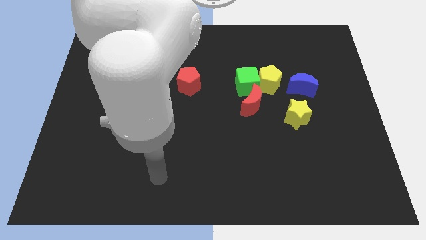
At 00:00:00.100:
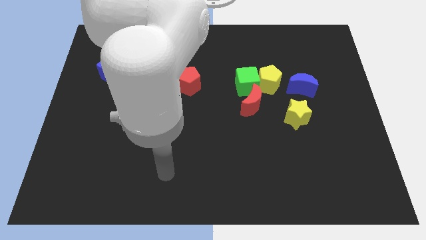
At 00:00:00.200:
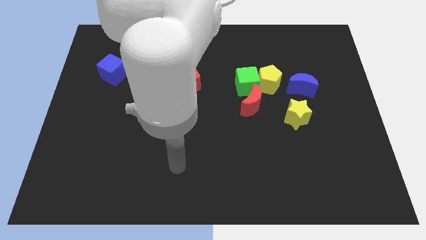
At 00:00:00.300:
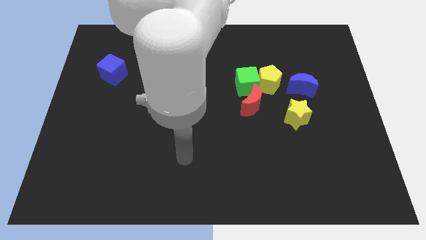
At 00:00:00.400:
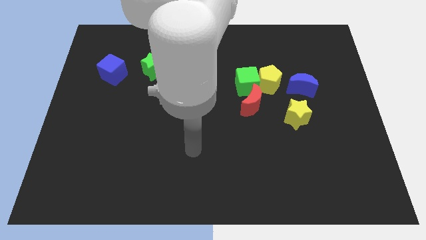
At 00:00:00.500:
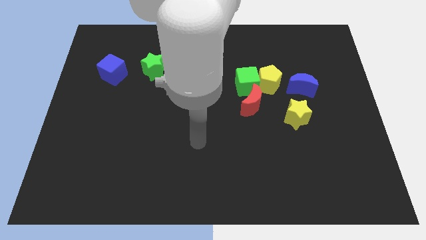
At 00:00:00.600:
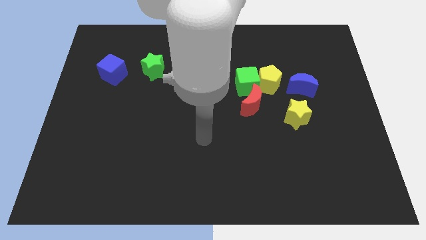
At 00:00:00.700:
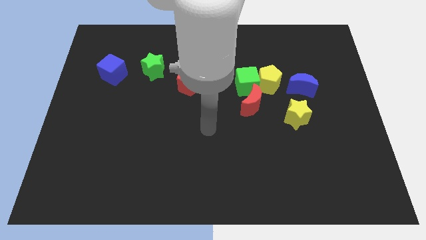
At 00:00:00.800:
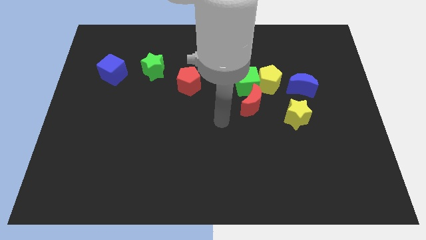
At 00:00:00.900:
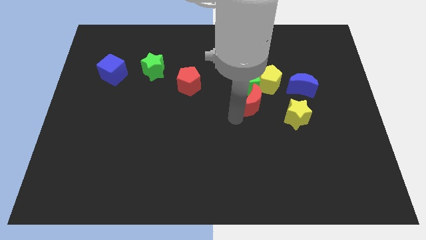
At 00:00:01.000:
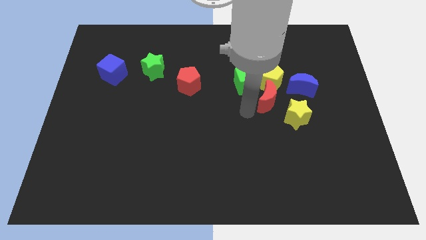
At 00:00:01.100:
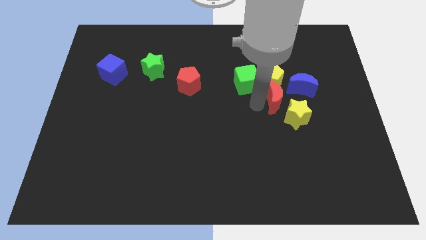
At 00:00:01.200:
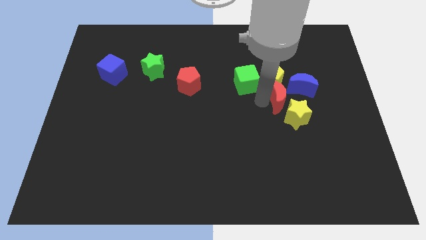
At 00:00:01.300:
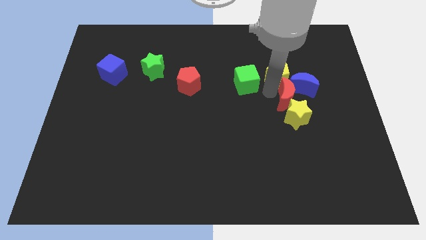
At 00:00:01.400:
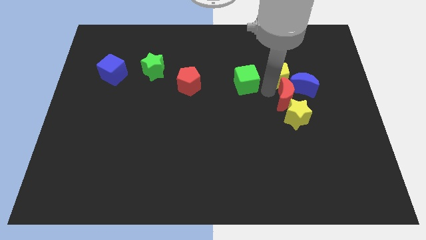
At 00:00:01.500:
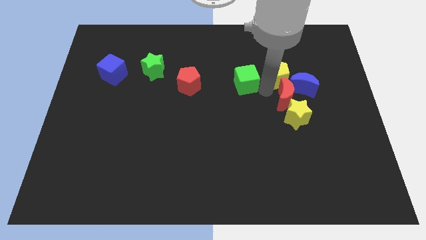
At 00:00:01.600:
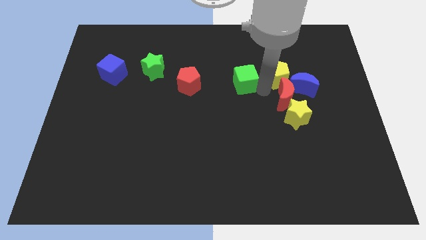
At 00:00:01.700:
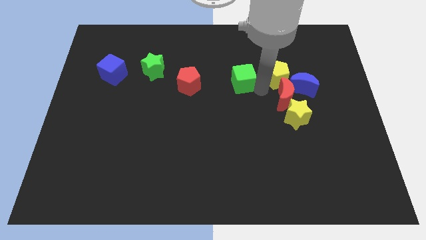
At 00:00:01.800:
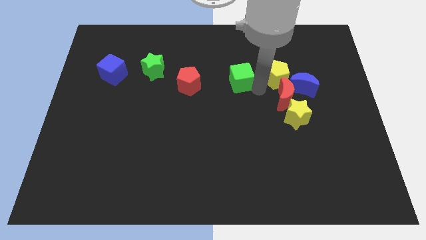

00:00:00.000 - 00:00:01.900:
move the green cube away from the yellow pentagon and red moon

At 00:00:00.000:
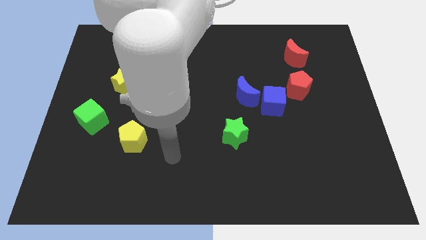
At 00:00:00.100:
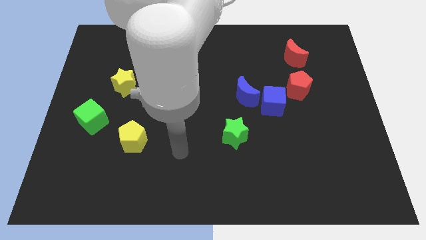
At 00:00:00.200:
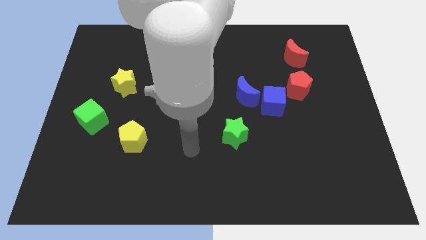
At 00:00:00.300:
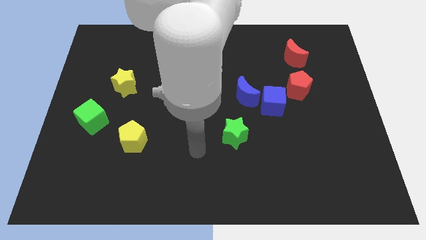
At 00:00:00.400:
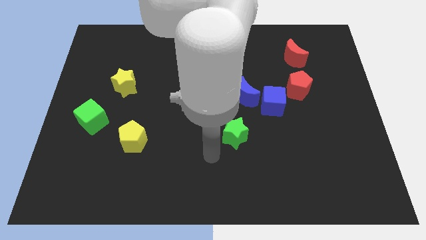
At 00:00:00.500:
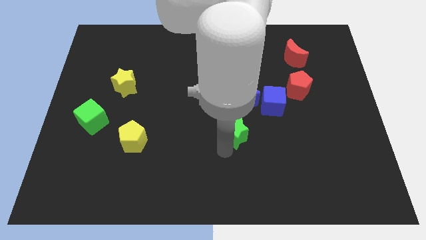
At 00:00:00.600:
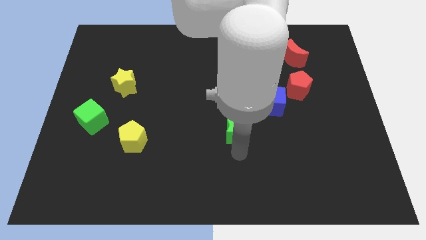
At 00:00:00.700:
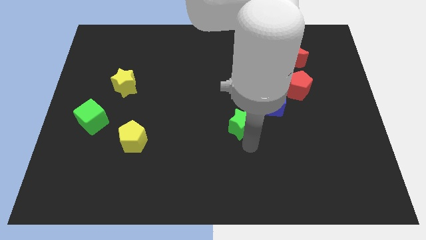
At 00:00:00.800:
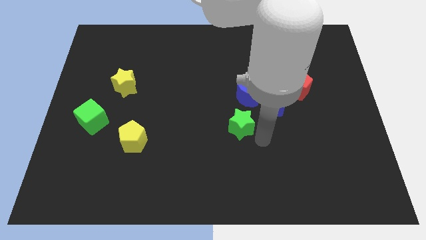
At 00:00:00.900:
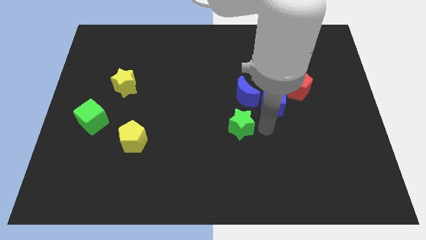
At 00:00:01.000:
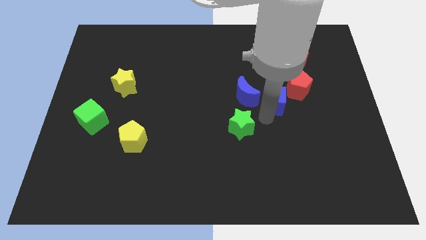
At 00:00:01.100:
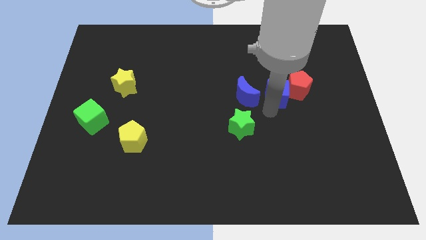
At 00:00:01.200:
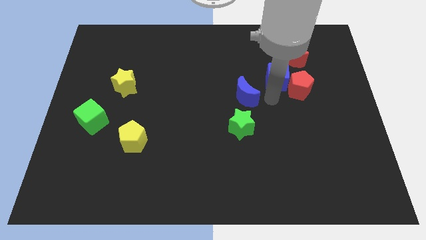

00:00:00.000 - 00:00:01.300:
separate the blue moon from the blue cube

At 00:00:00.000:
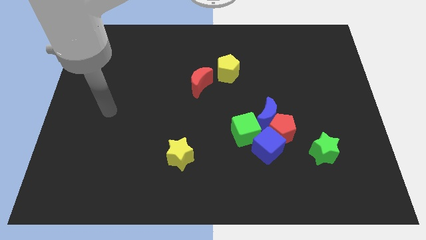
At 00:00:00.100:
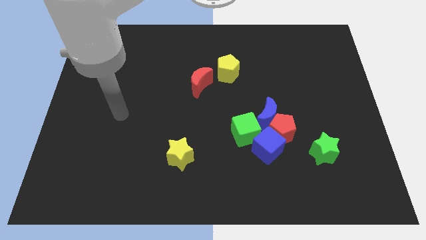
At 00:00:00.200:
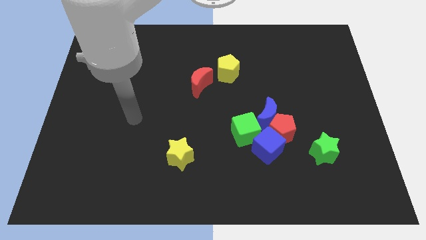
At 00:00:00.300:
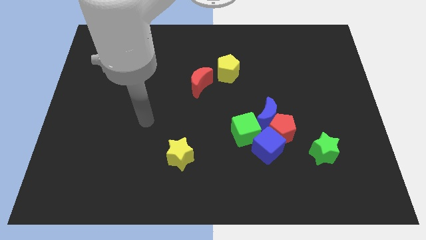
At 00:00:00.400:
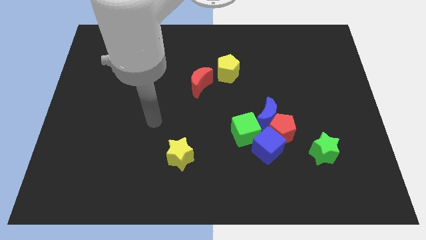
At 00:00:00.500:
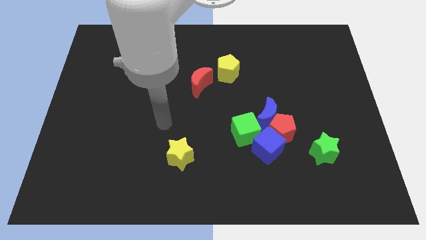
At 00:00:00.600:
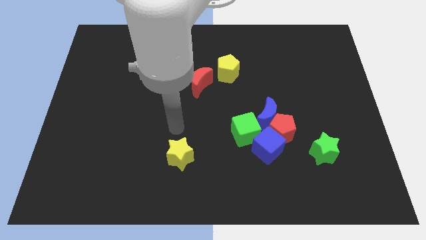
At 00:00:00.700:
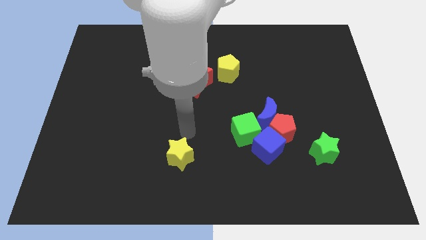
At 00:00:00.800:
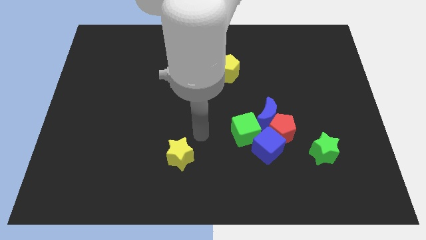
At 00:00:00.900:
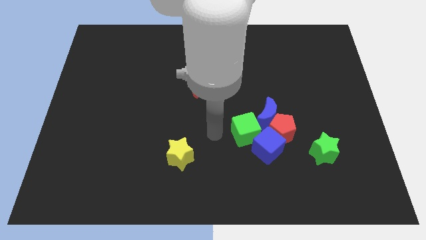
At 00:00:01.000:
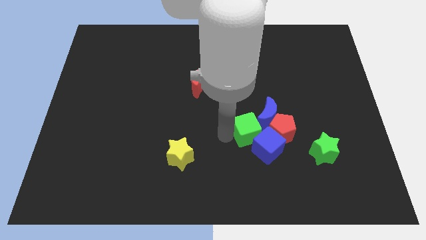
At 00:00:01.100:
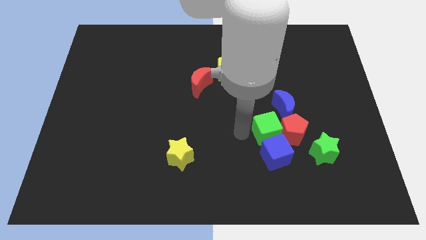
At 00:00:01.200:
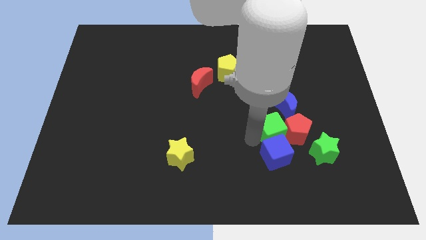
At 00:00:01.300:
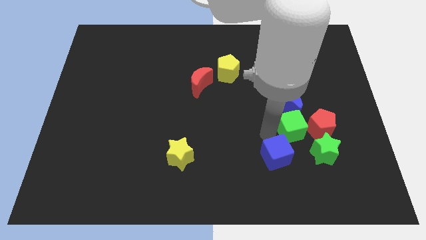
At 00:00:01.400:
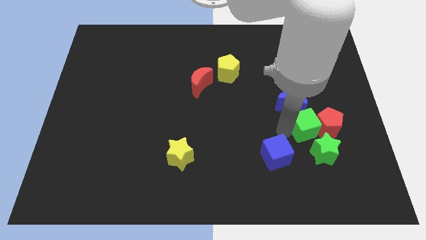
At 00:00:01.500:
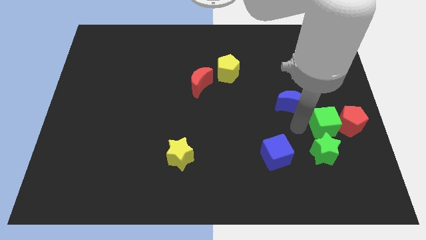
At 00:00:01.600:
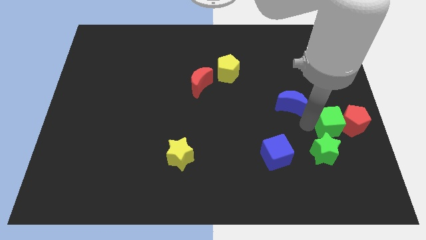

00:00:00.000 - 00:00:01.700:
pull the blue moon apart from the red pentagon, green cube, and blue cube

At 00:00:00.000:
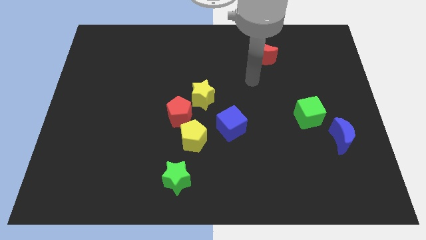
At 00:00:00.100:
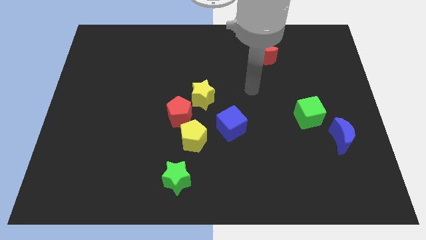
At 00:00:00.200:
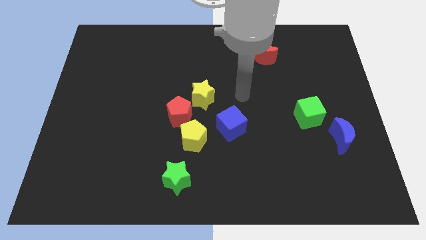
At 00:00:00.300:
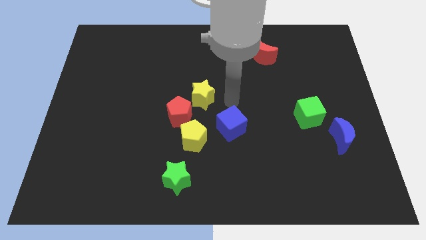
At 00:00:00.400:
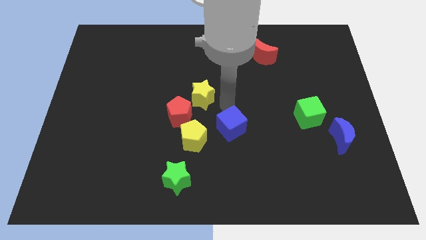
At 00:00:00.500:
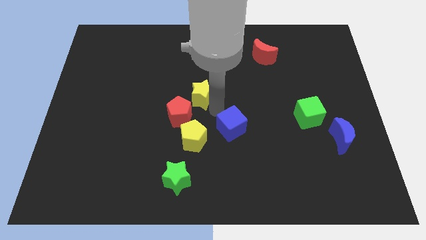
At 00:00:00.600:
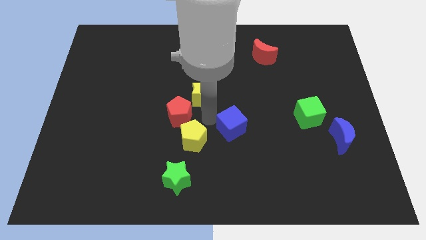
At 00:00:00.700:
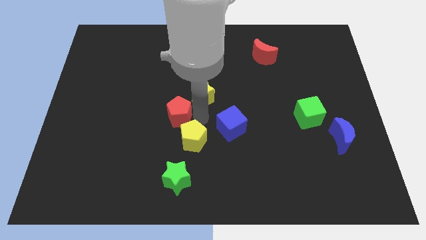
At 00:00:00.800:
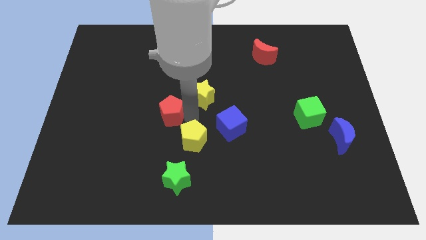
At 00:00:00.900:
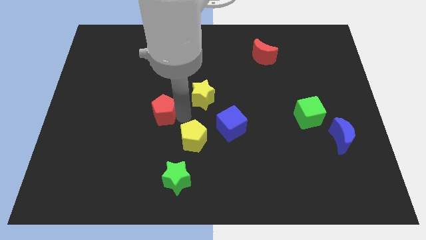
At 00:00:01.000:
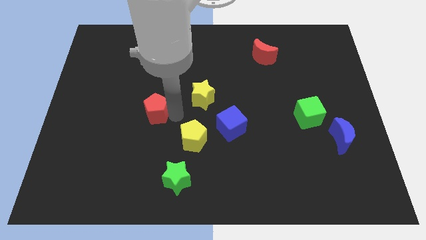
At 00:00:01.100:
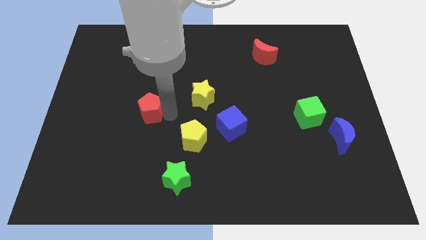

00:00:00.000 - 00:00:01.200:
pull the red pentagon apart from the yellow pentagon and yellow star

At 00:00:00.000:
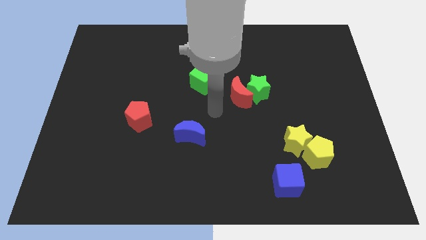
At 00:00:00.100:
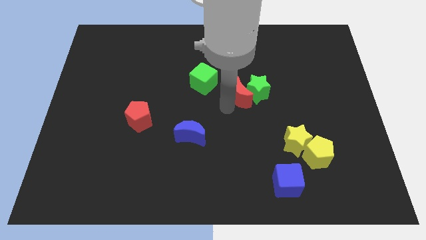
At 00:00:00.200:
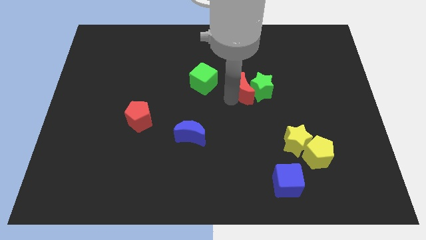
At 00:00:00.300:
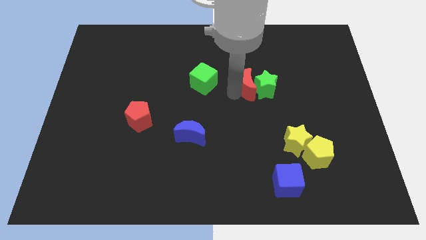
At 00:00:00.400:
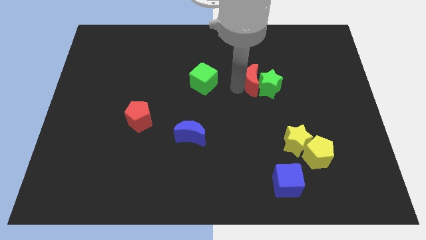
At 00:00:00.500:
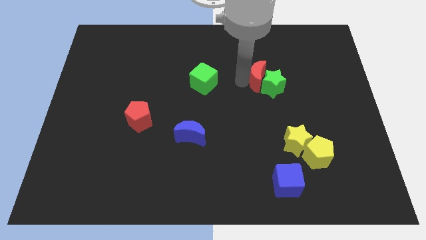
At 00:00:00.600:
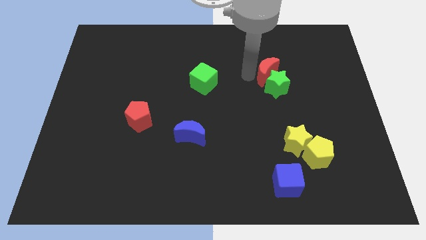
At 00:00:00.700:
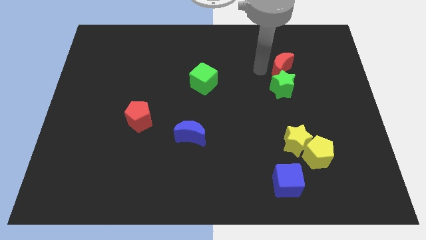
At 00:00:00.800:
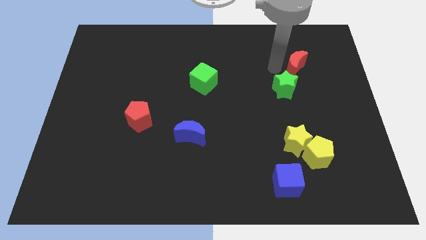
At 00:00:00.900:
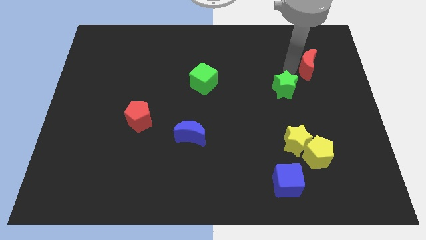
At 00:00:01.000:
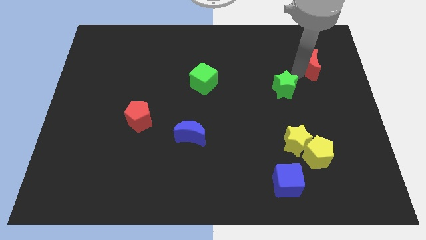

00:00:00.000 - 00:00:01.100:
move the green star away from the red moon

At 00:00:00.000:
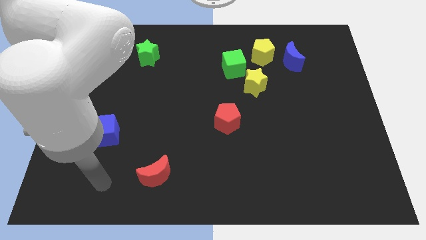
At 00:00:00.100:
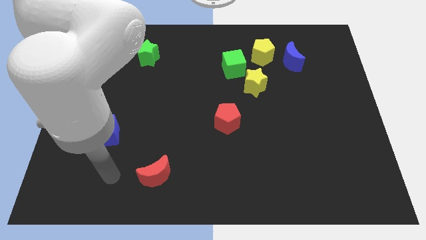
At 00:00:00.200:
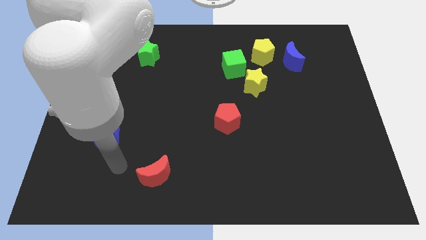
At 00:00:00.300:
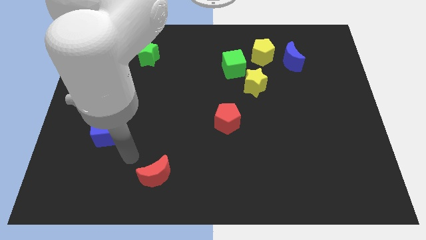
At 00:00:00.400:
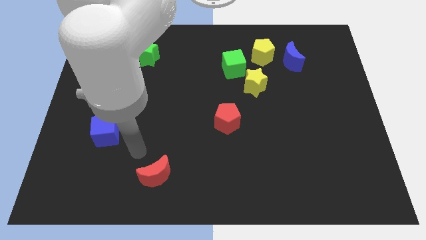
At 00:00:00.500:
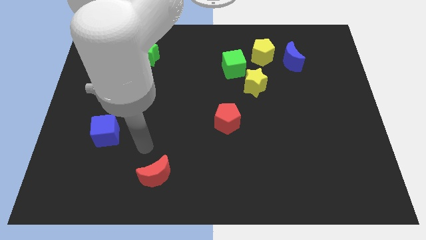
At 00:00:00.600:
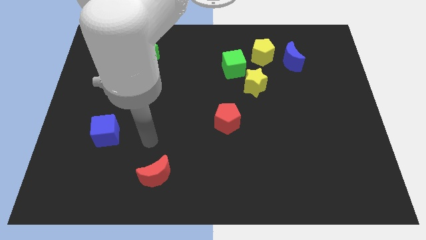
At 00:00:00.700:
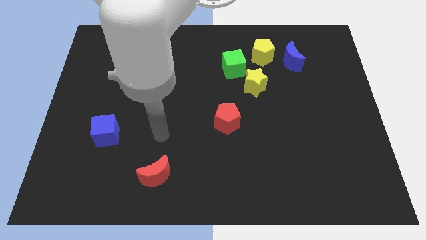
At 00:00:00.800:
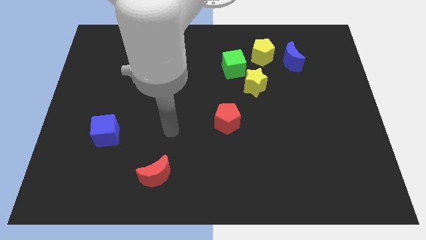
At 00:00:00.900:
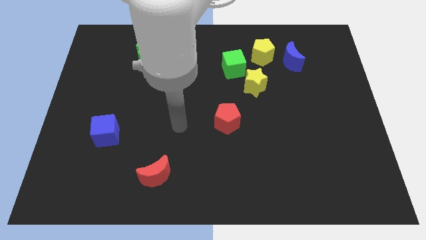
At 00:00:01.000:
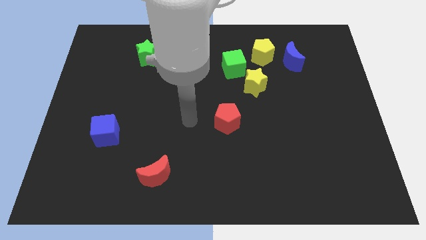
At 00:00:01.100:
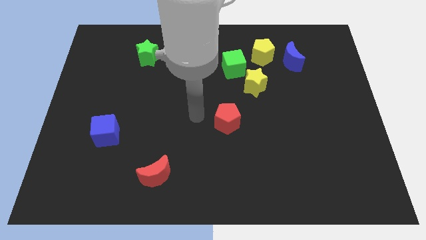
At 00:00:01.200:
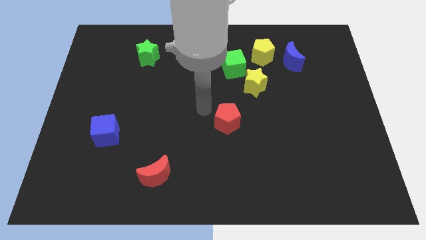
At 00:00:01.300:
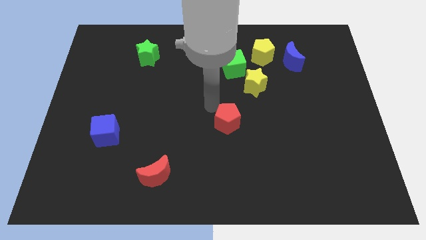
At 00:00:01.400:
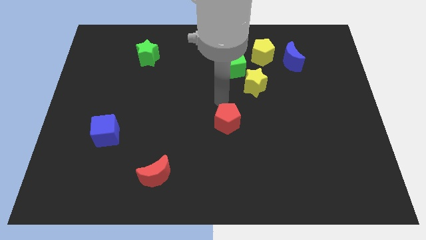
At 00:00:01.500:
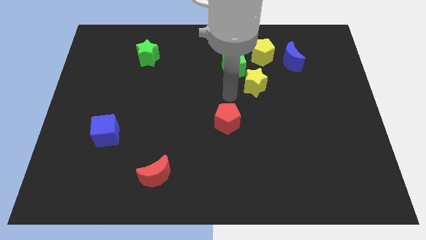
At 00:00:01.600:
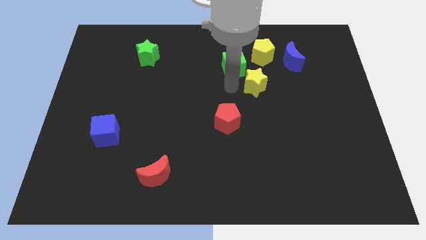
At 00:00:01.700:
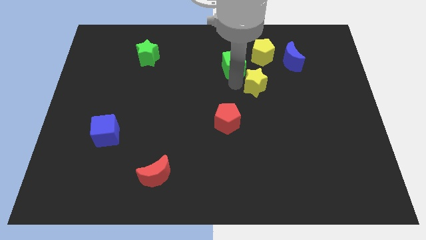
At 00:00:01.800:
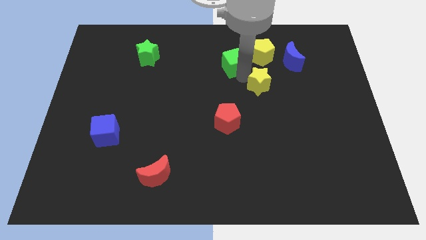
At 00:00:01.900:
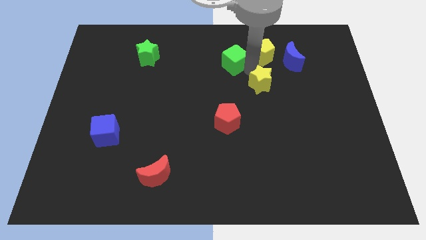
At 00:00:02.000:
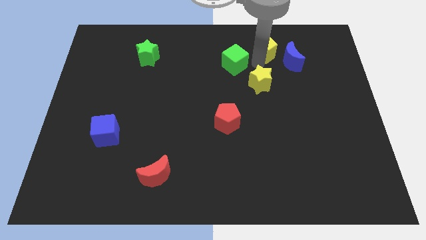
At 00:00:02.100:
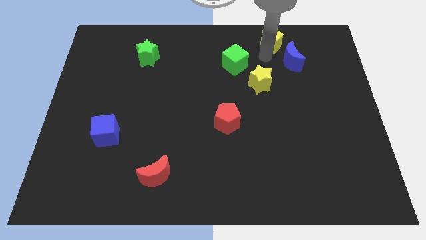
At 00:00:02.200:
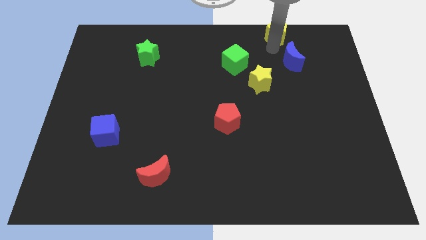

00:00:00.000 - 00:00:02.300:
pull the blue moon apart from the yellow pentagon
